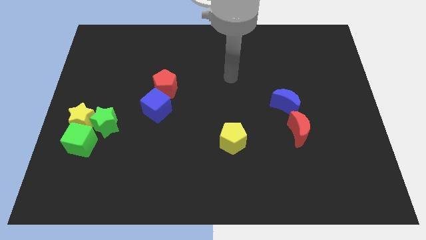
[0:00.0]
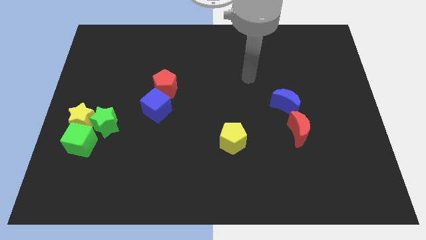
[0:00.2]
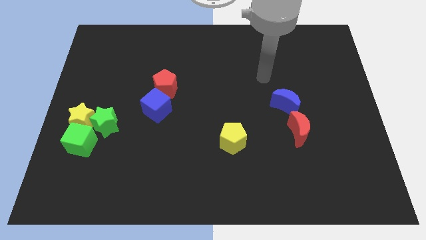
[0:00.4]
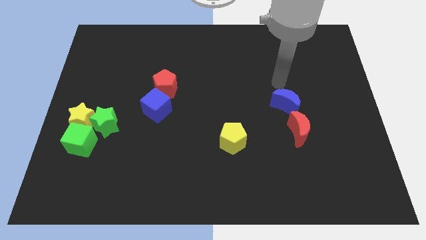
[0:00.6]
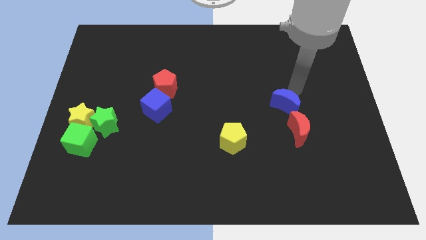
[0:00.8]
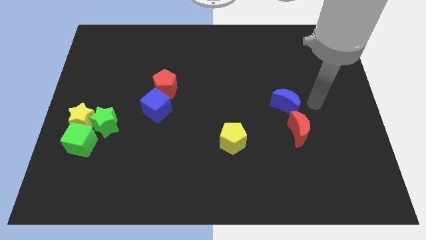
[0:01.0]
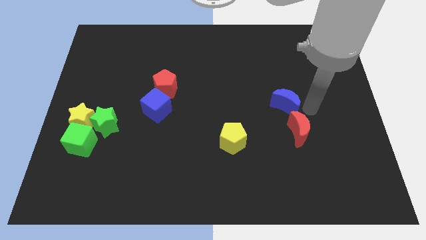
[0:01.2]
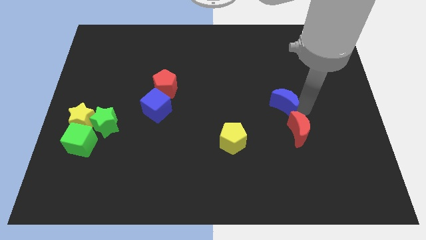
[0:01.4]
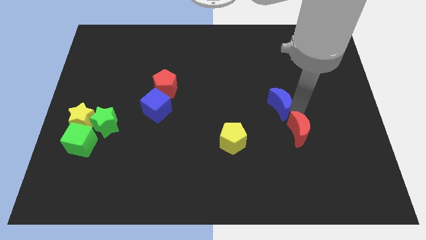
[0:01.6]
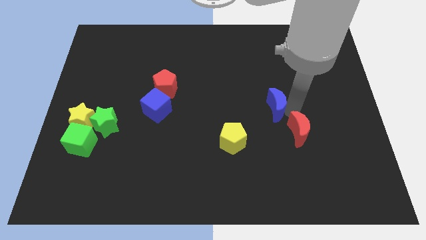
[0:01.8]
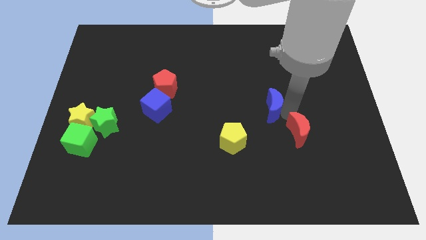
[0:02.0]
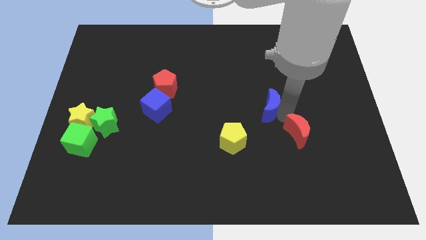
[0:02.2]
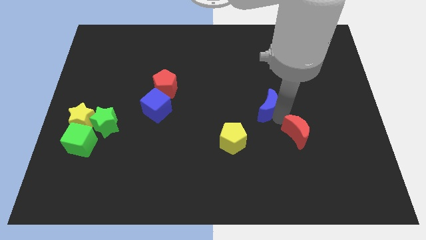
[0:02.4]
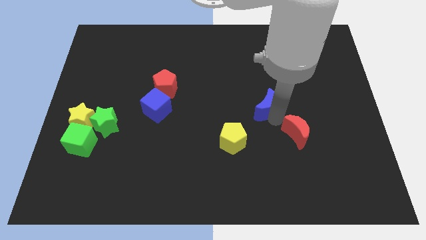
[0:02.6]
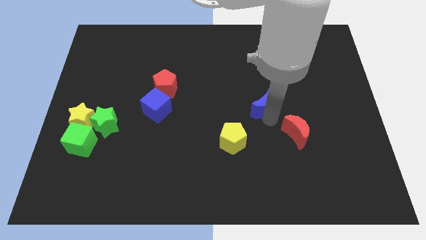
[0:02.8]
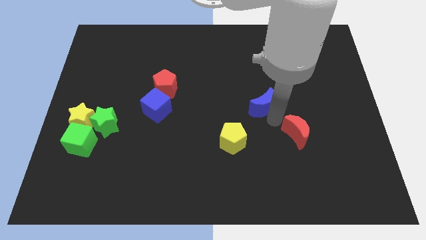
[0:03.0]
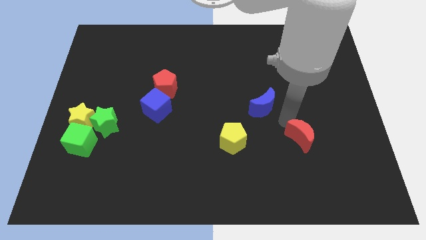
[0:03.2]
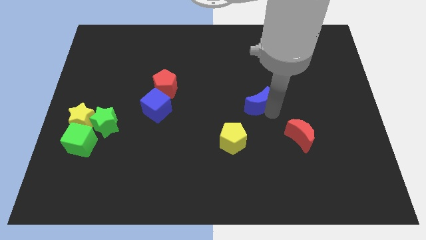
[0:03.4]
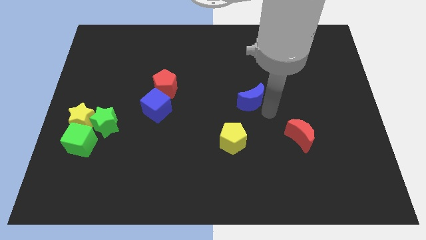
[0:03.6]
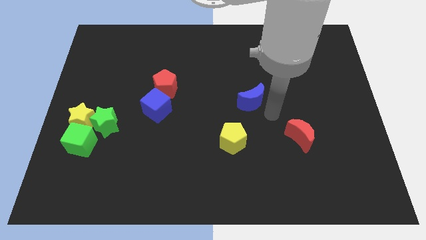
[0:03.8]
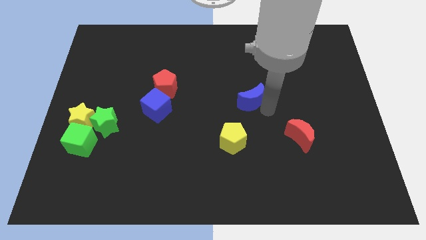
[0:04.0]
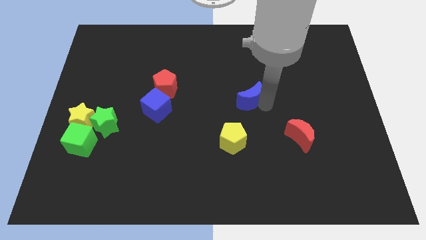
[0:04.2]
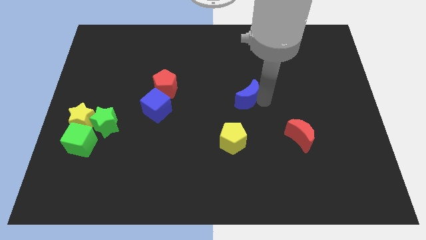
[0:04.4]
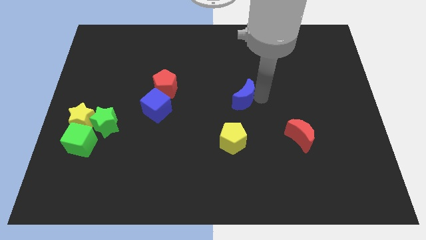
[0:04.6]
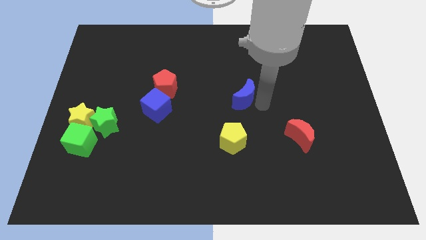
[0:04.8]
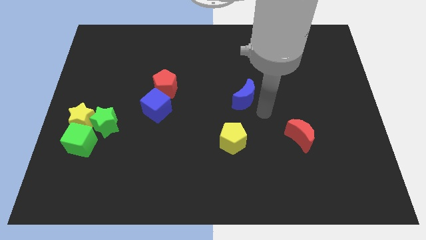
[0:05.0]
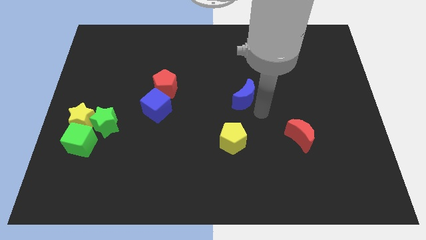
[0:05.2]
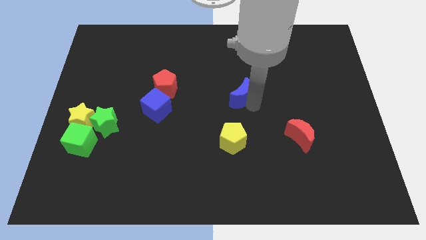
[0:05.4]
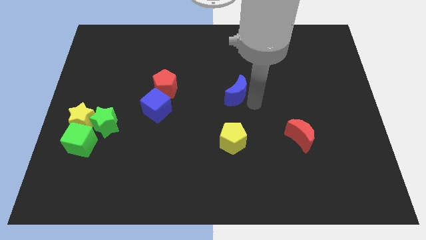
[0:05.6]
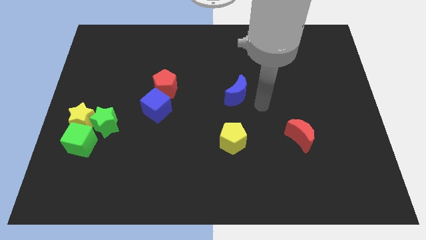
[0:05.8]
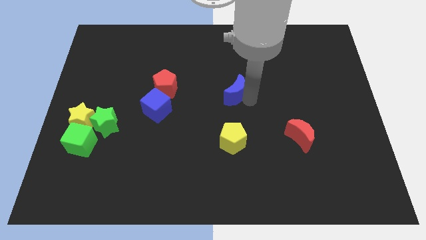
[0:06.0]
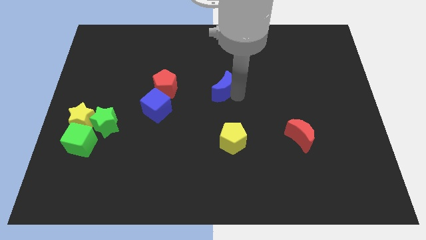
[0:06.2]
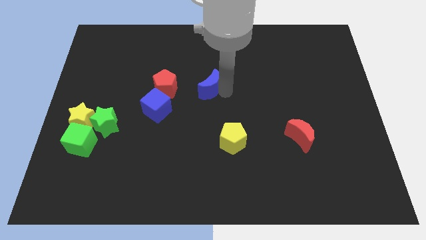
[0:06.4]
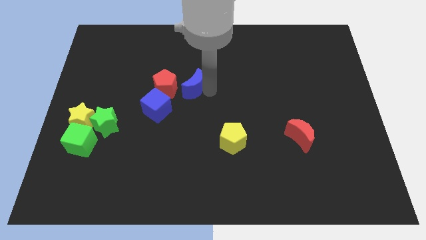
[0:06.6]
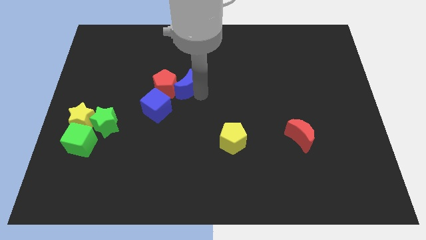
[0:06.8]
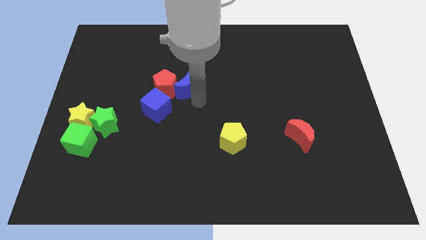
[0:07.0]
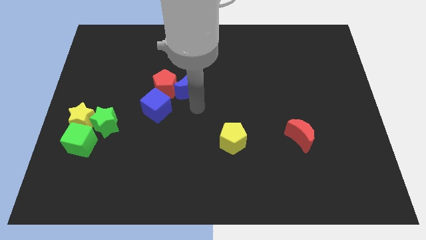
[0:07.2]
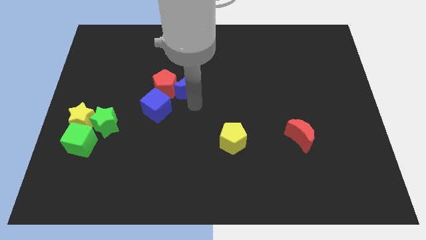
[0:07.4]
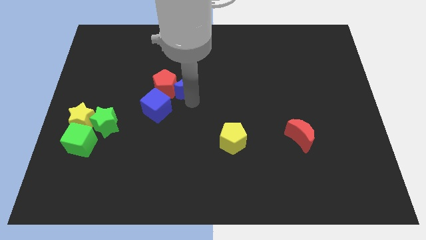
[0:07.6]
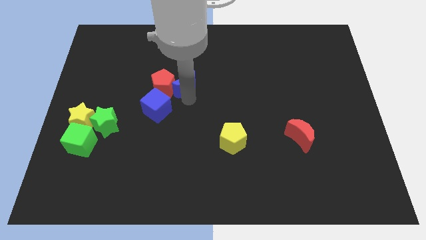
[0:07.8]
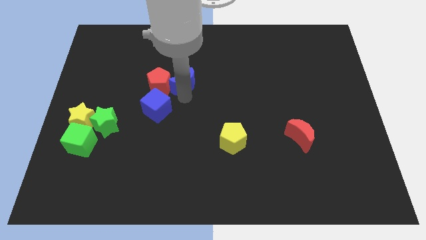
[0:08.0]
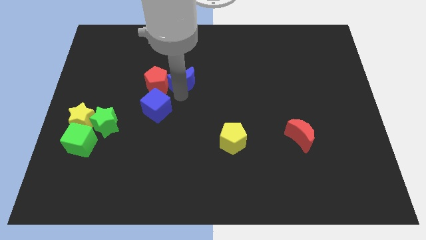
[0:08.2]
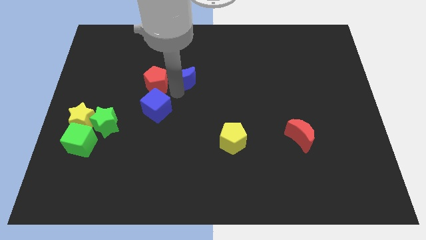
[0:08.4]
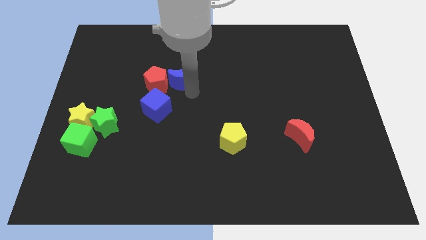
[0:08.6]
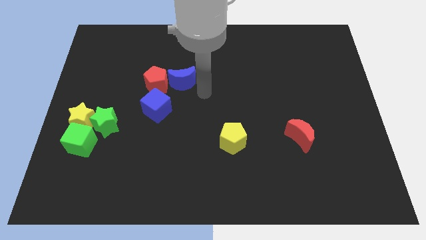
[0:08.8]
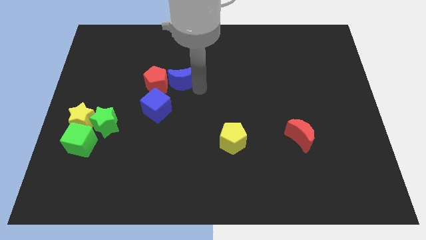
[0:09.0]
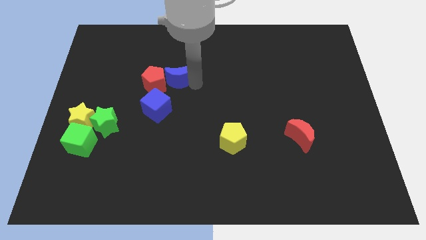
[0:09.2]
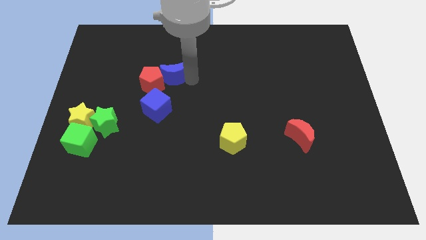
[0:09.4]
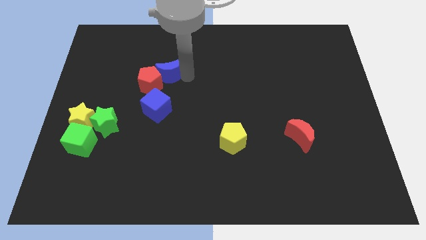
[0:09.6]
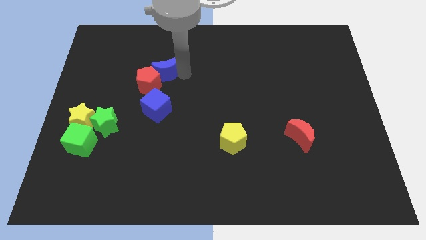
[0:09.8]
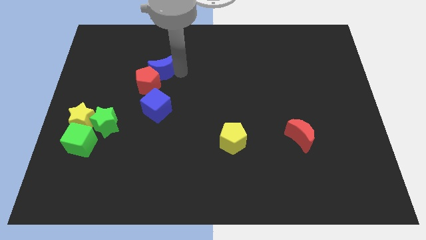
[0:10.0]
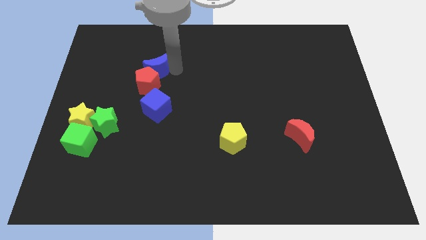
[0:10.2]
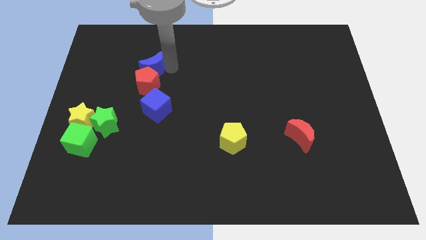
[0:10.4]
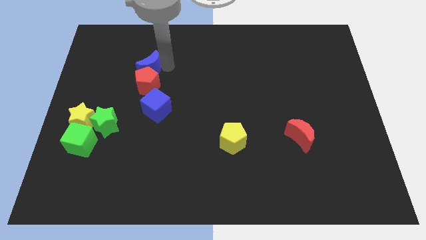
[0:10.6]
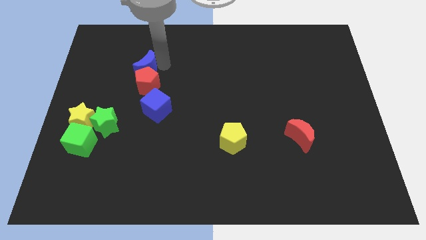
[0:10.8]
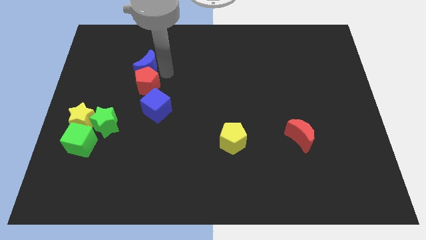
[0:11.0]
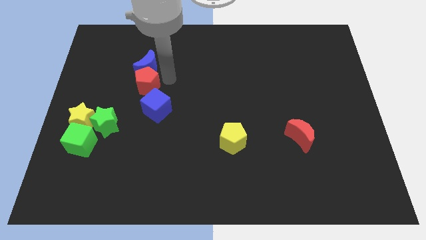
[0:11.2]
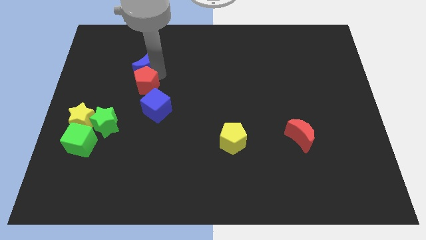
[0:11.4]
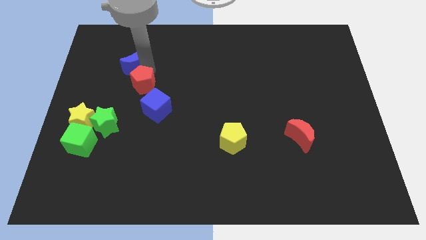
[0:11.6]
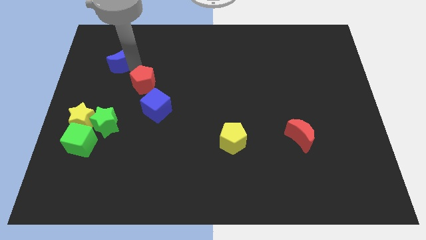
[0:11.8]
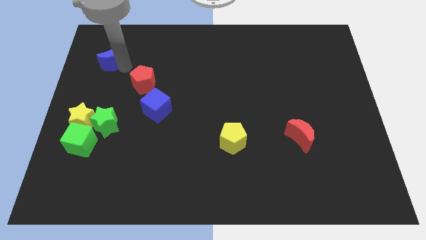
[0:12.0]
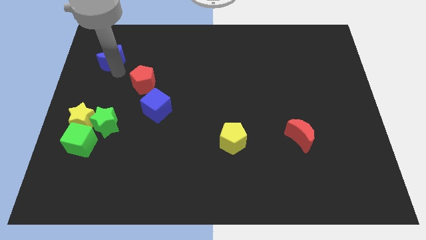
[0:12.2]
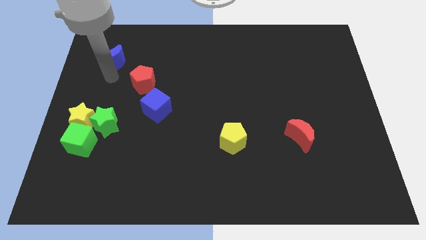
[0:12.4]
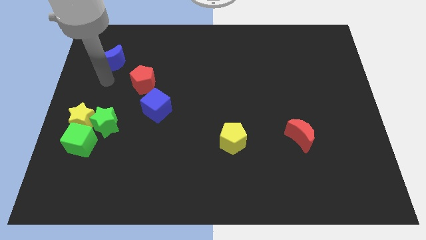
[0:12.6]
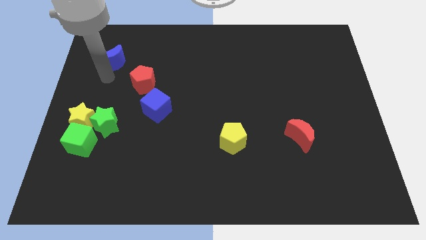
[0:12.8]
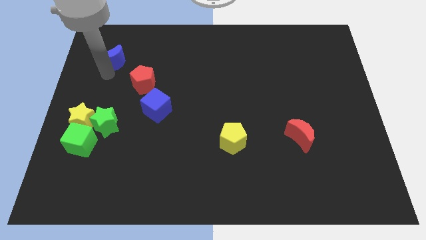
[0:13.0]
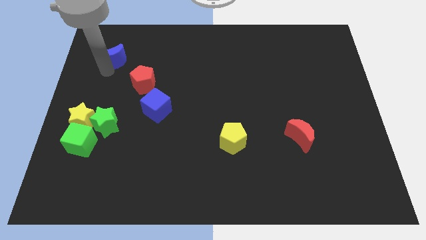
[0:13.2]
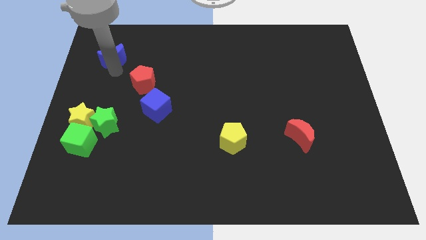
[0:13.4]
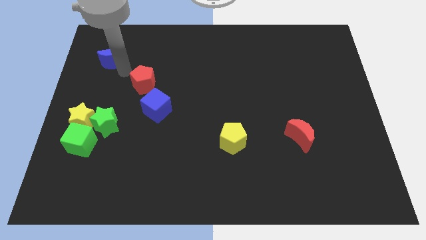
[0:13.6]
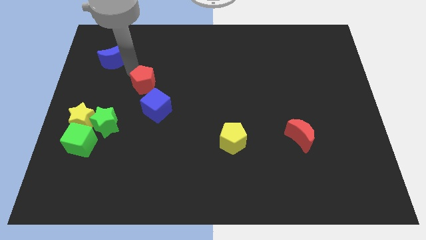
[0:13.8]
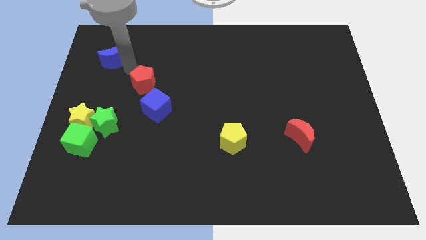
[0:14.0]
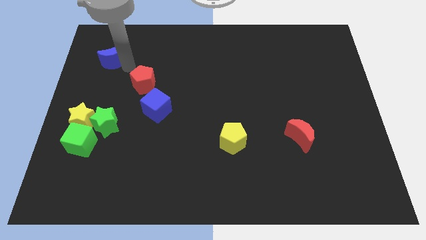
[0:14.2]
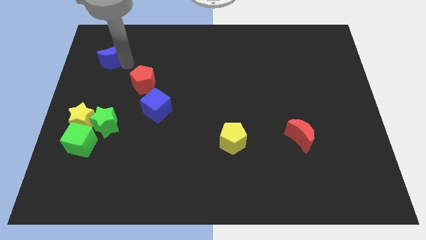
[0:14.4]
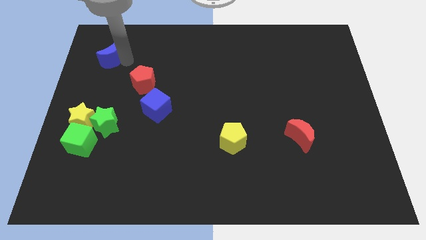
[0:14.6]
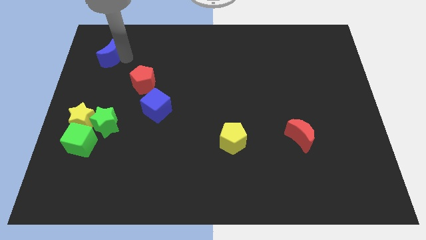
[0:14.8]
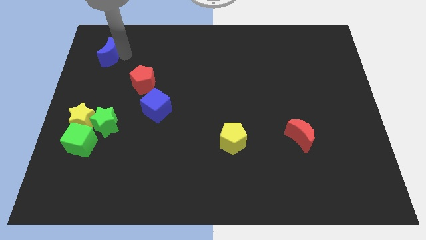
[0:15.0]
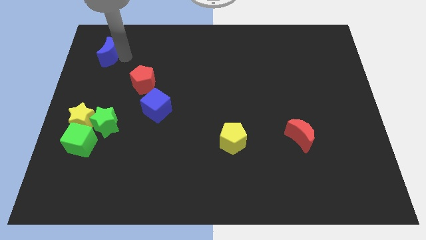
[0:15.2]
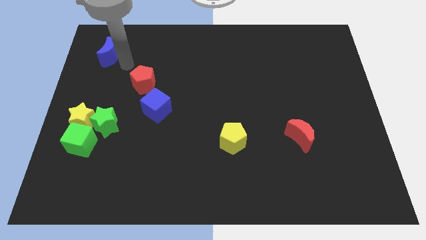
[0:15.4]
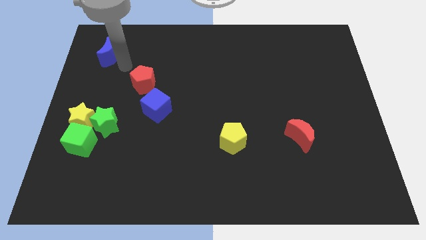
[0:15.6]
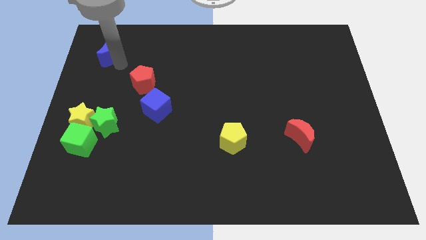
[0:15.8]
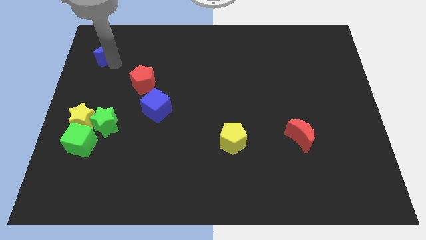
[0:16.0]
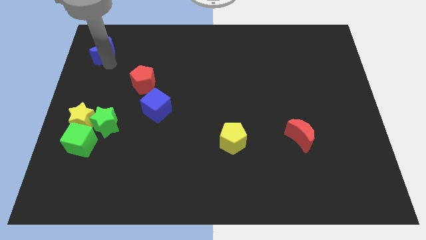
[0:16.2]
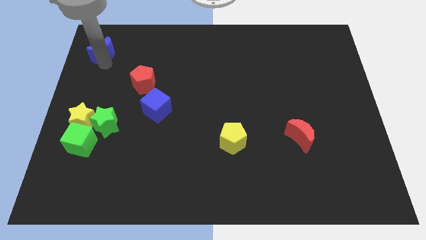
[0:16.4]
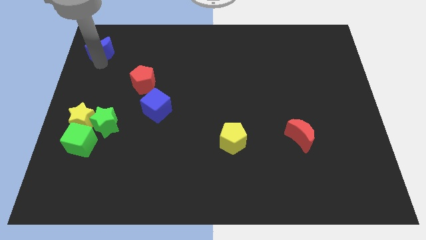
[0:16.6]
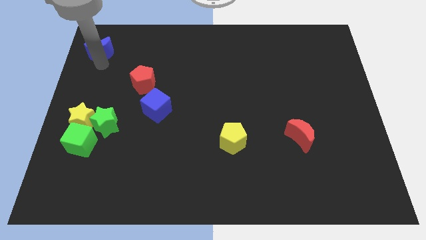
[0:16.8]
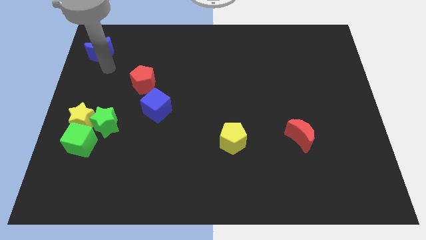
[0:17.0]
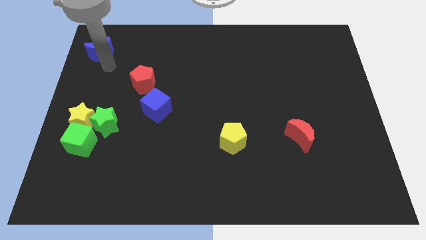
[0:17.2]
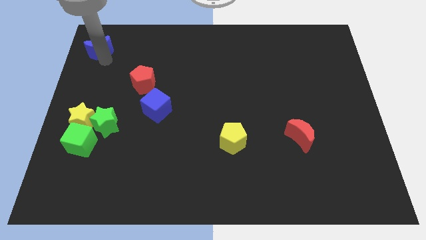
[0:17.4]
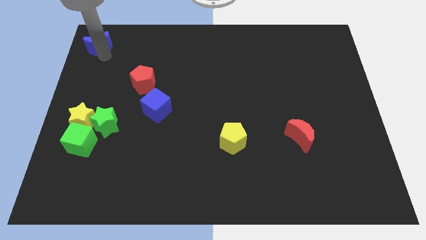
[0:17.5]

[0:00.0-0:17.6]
move the blue moon to the top left corner
